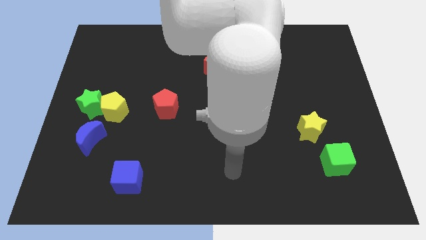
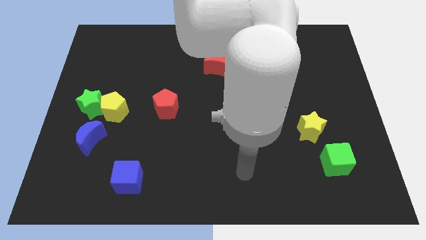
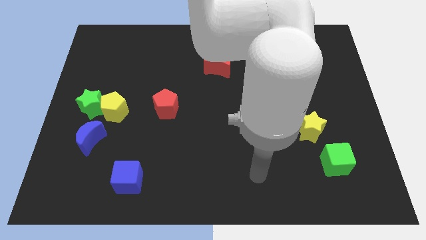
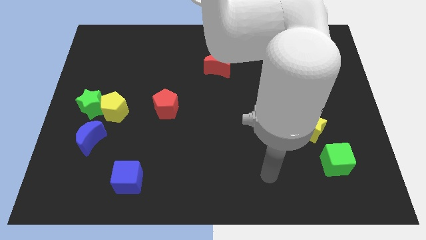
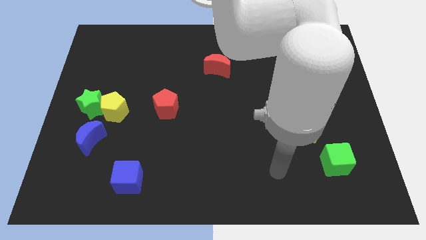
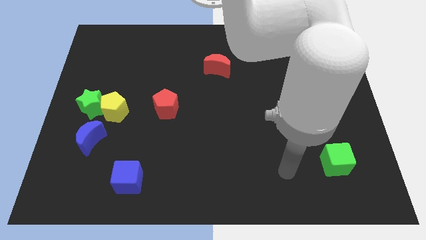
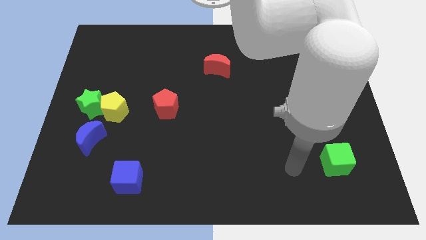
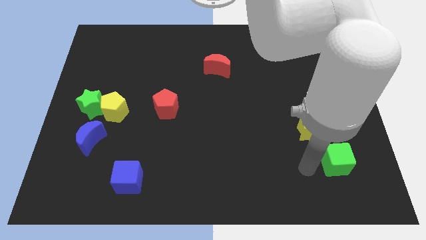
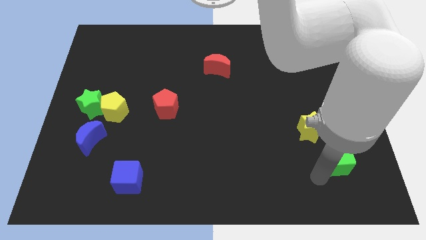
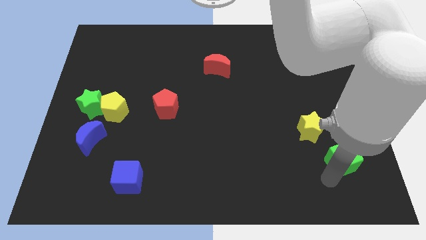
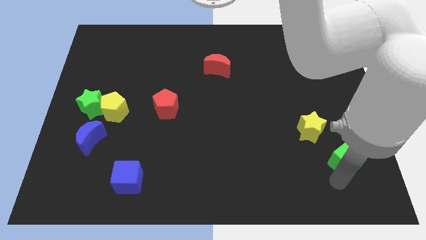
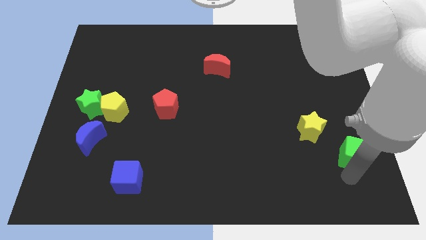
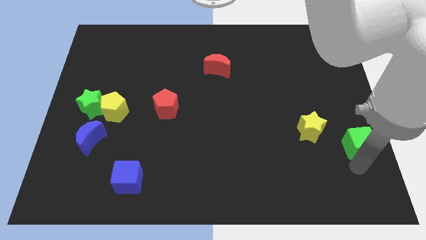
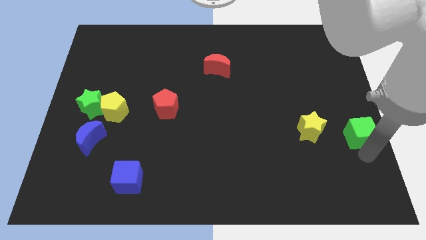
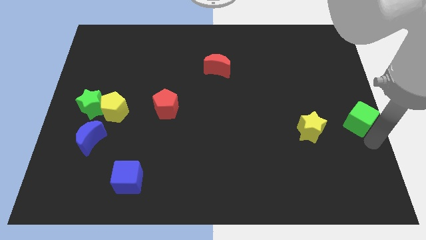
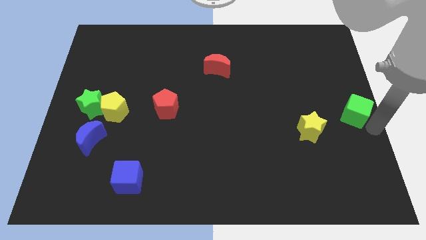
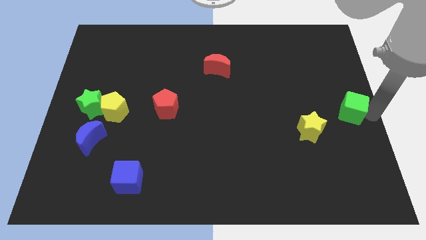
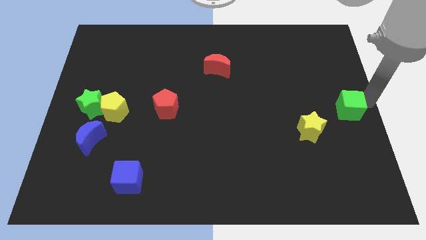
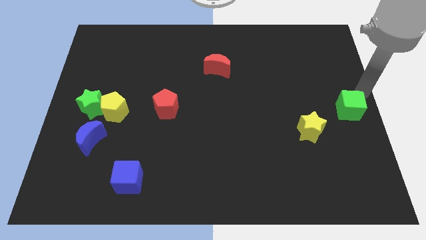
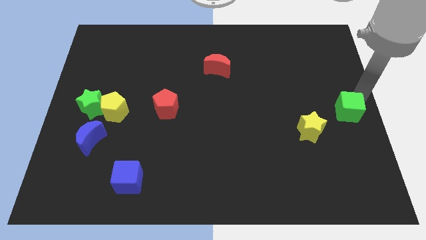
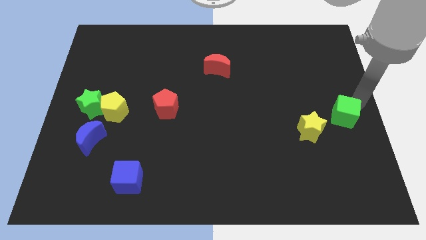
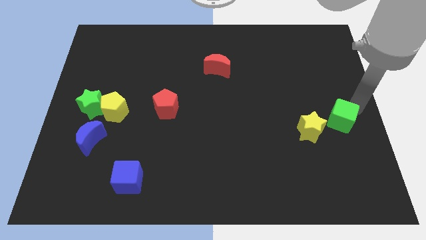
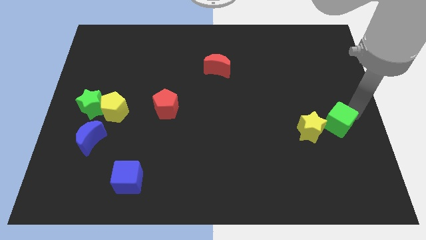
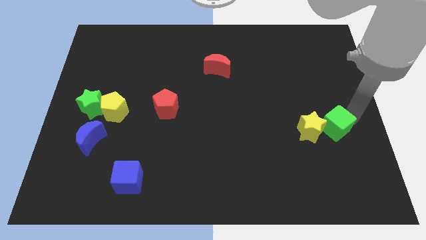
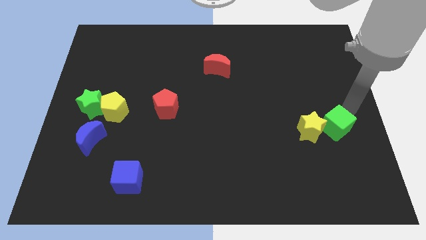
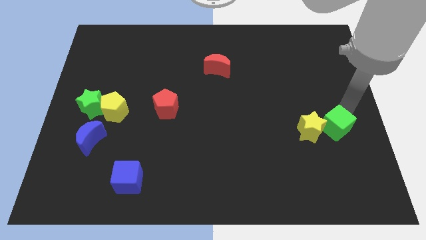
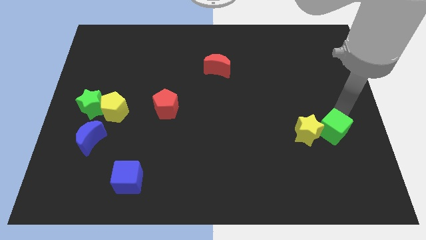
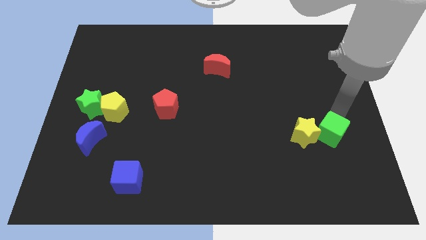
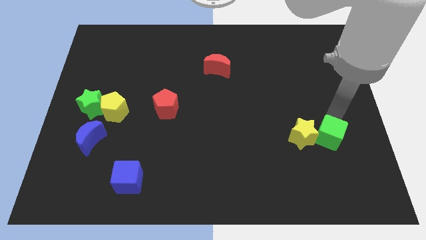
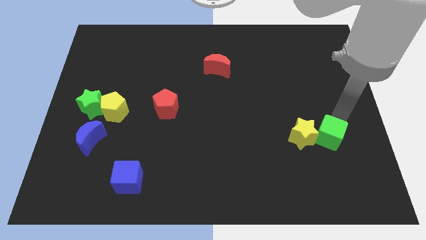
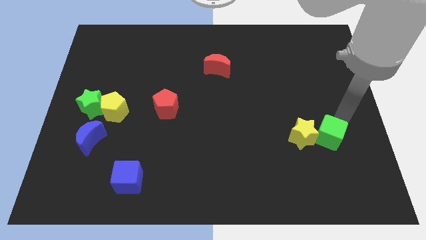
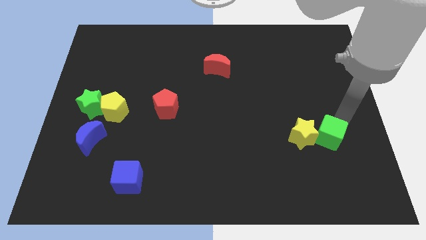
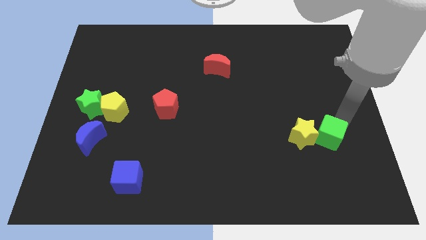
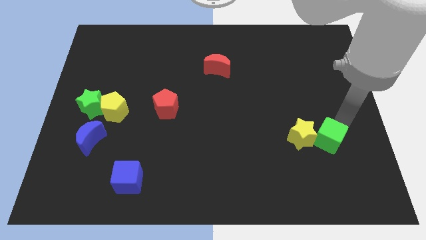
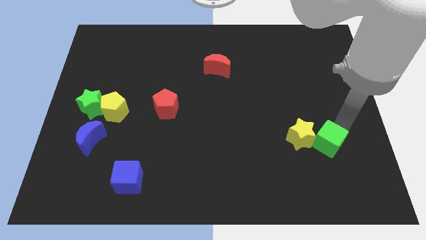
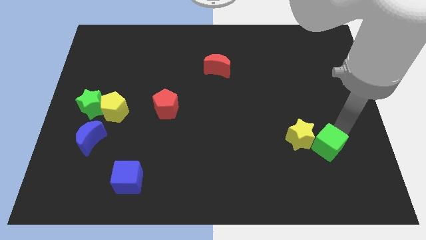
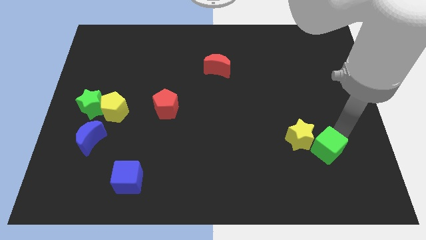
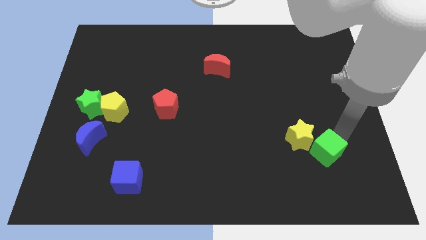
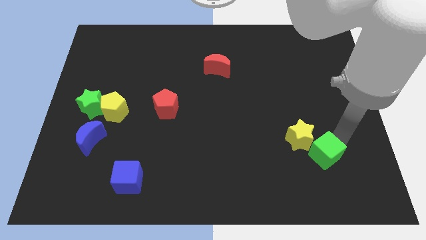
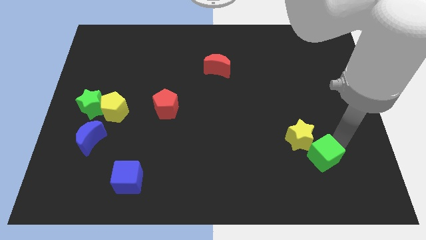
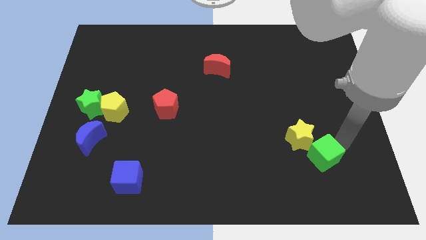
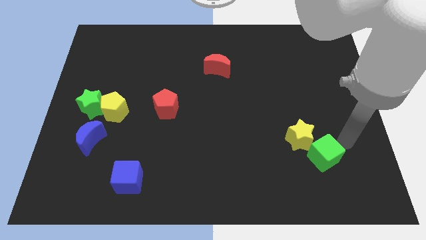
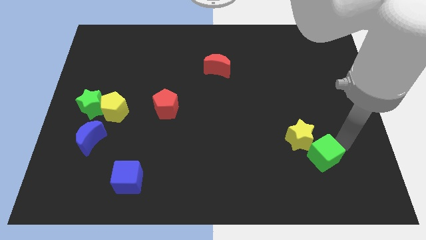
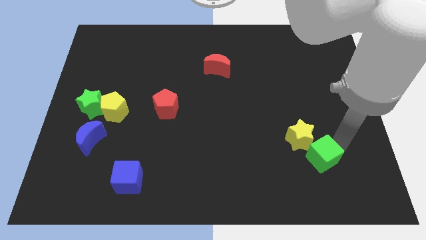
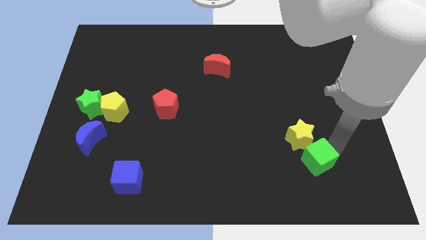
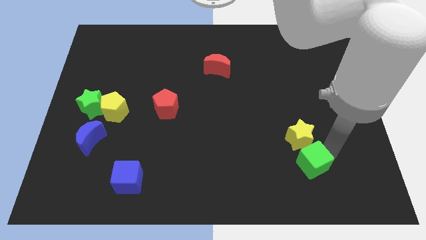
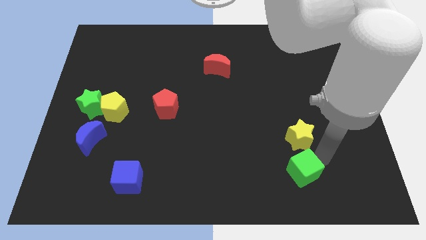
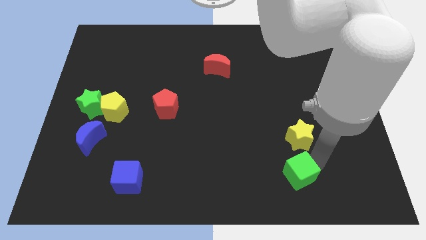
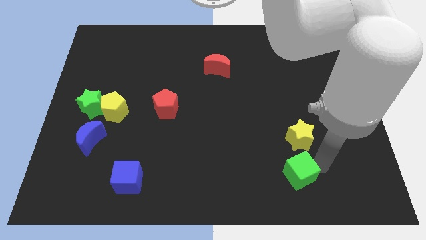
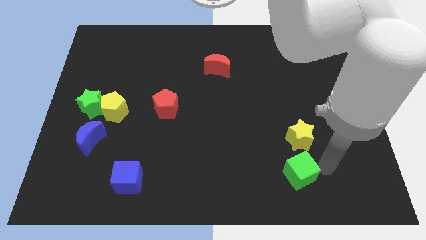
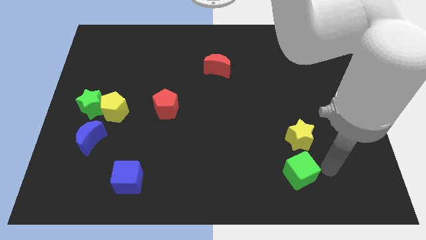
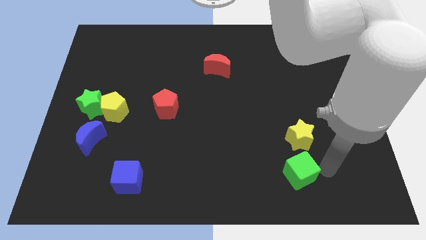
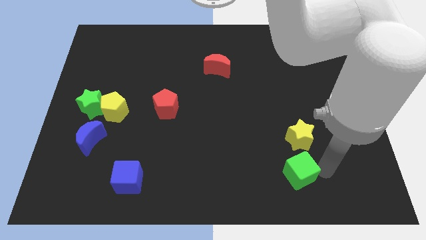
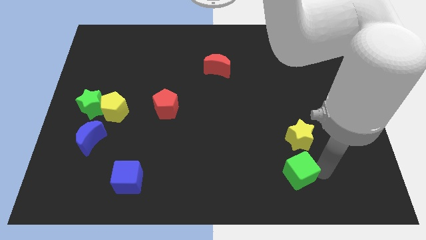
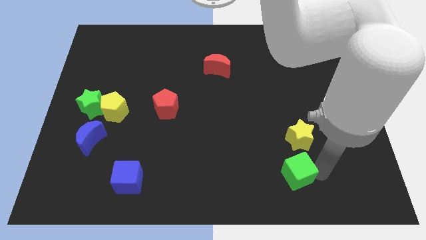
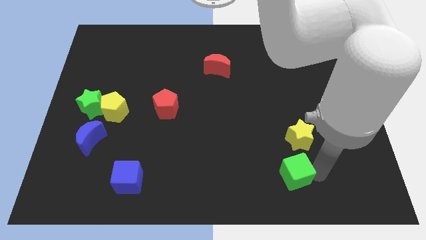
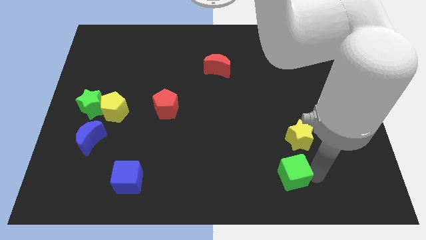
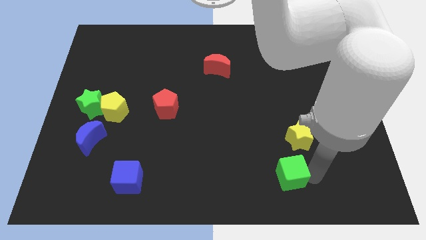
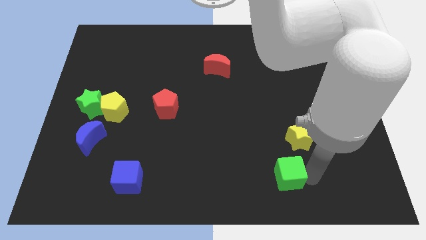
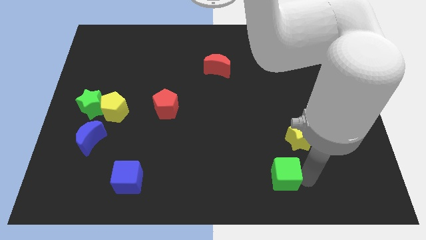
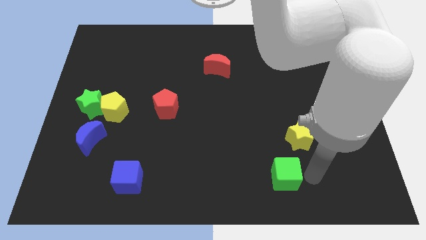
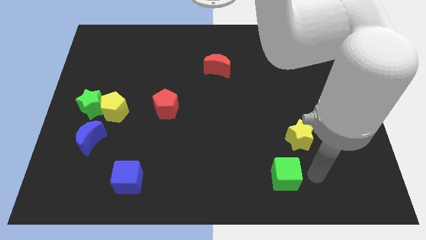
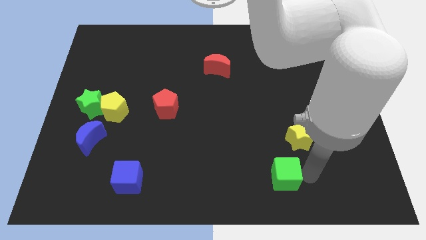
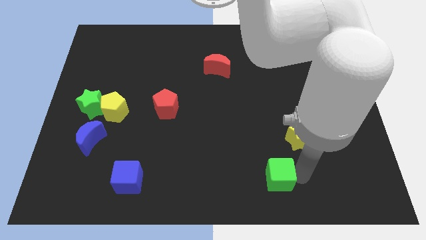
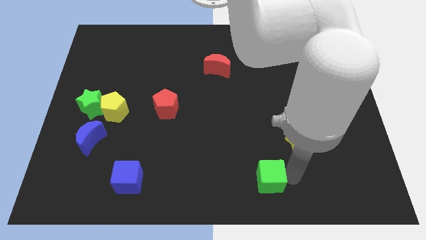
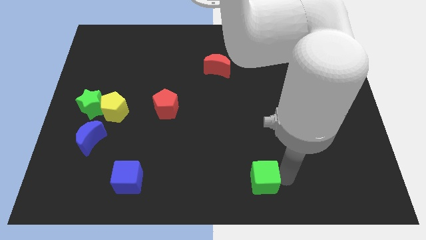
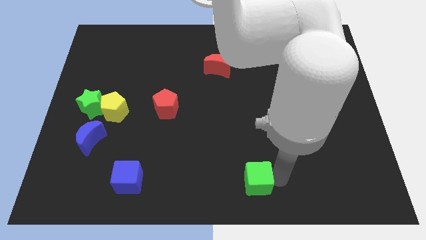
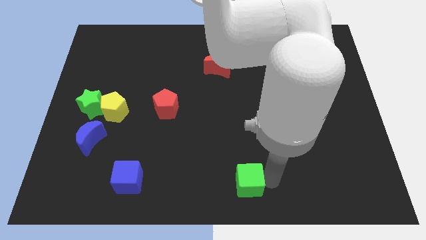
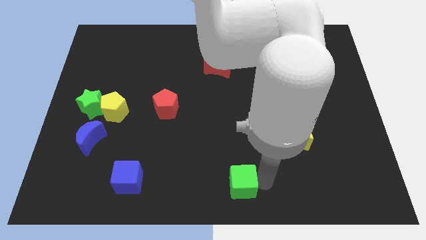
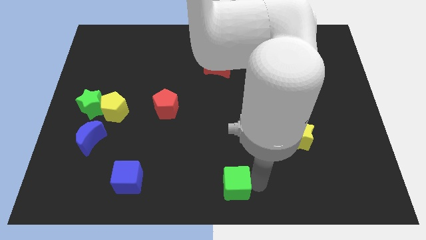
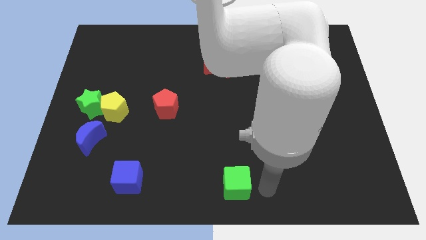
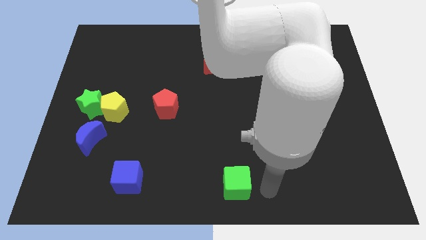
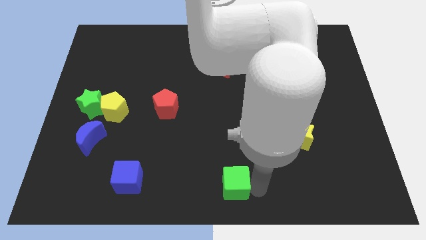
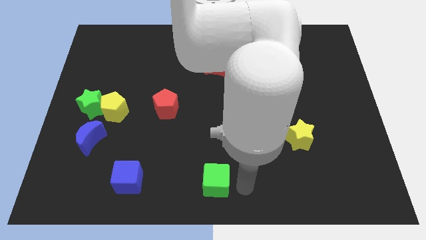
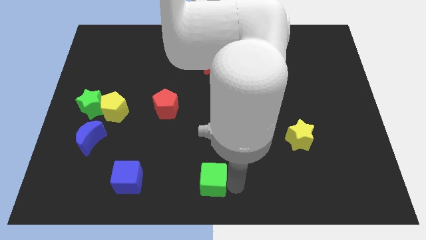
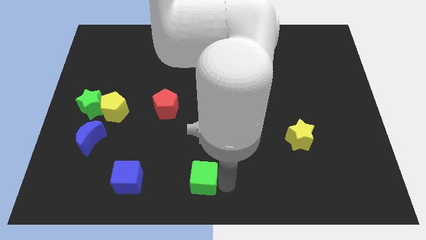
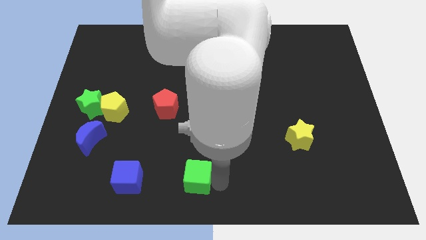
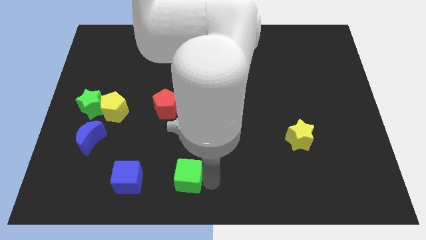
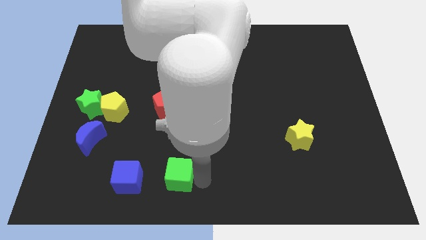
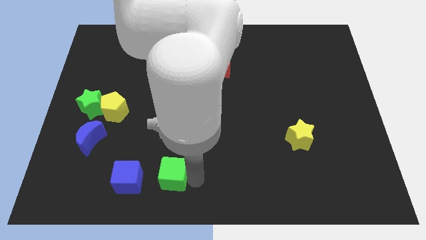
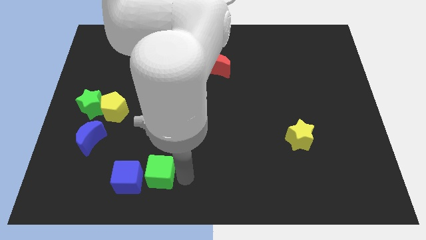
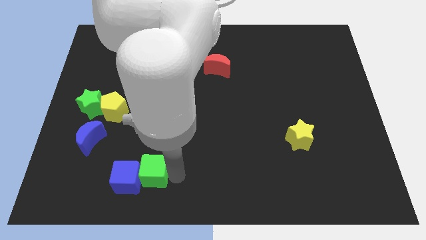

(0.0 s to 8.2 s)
move the green cube next to the blue cube
